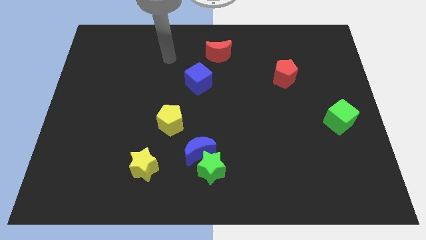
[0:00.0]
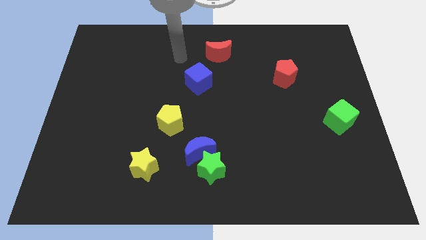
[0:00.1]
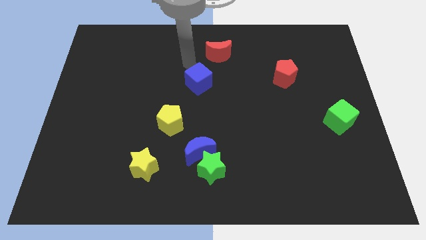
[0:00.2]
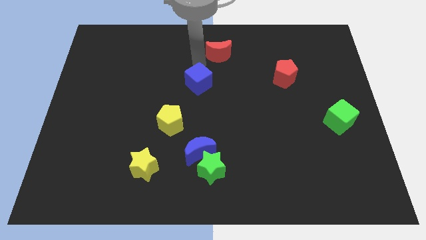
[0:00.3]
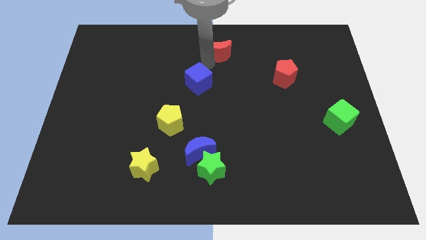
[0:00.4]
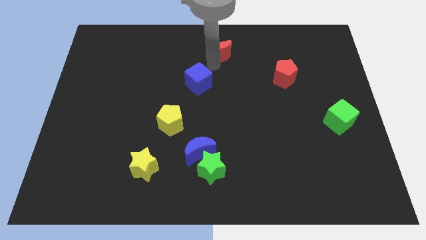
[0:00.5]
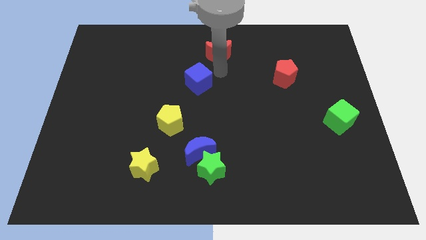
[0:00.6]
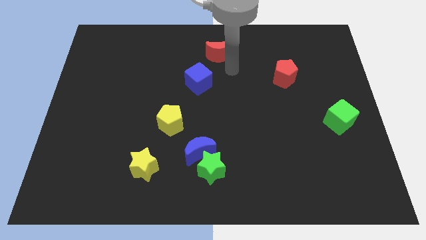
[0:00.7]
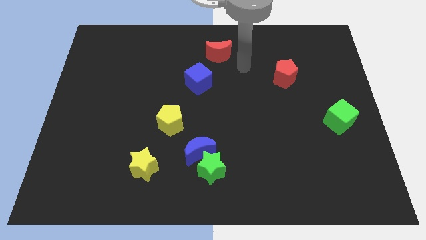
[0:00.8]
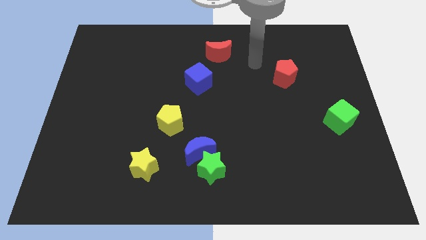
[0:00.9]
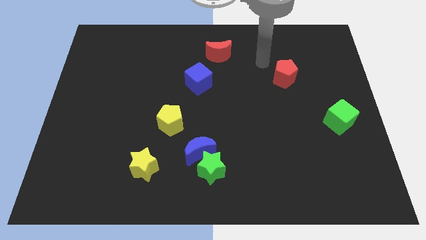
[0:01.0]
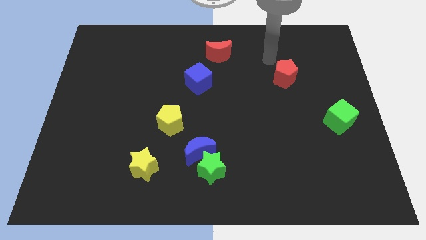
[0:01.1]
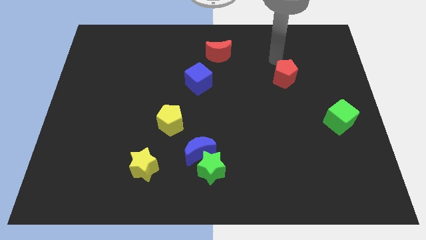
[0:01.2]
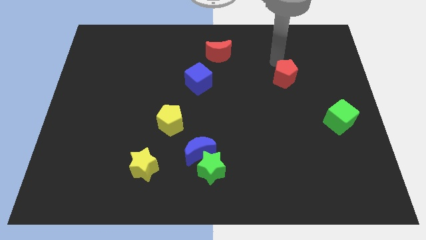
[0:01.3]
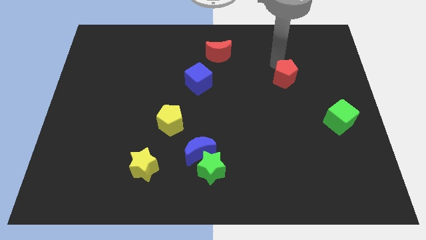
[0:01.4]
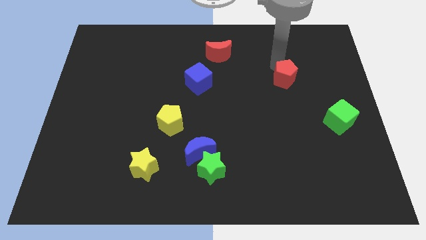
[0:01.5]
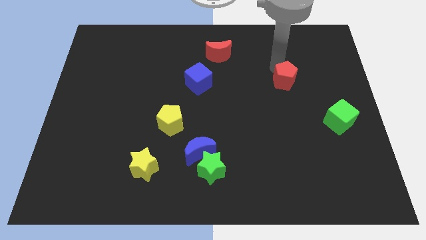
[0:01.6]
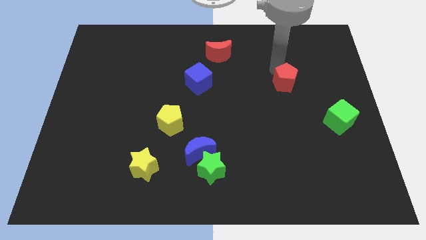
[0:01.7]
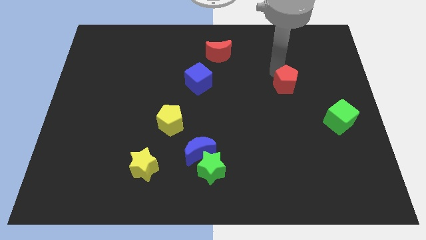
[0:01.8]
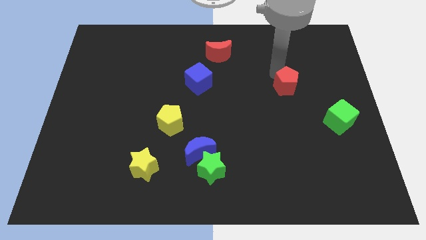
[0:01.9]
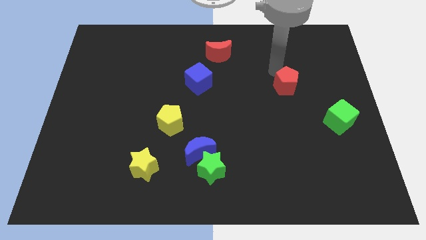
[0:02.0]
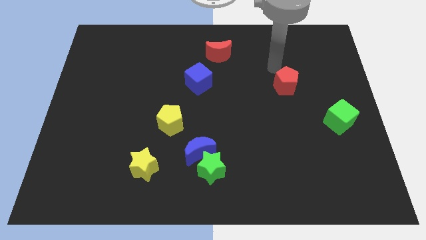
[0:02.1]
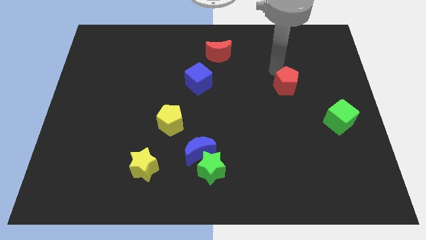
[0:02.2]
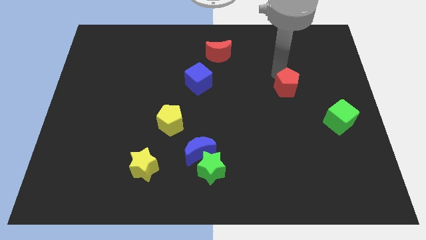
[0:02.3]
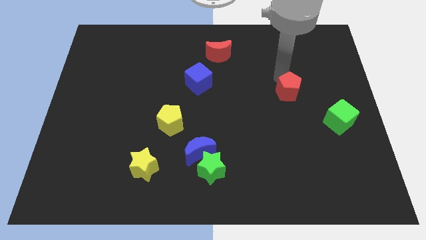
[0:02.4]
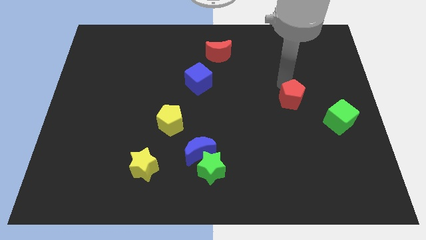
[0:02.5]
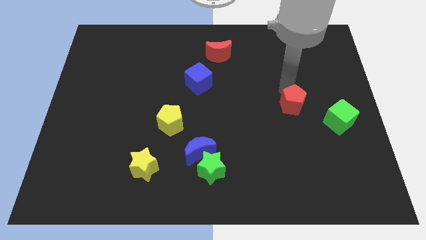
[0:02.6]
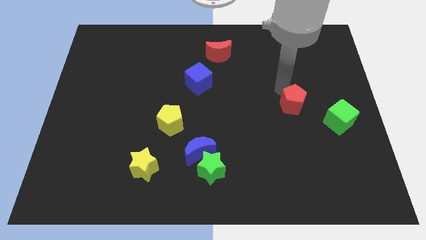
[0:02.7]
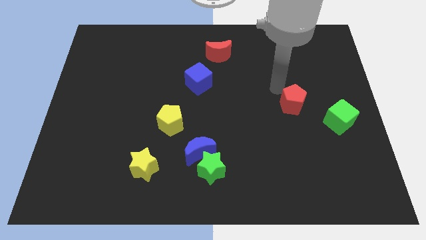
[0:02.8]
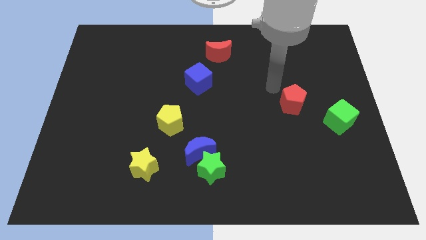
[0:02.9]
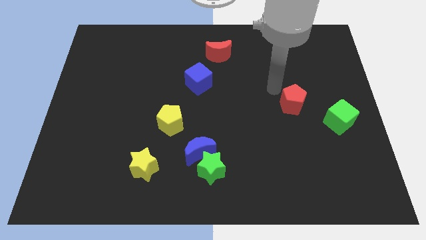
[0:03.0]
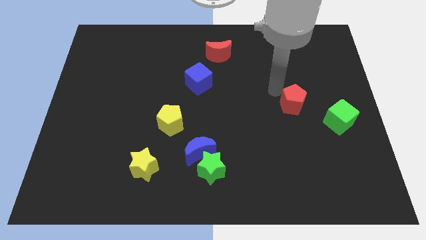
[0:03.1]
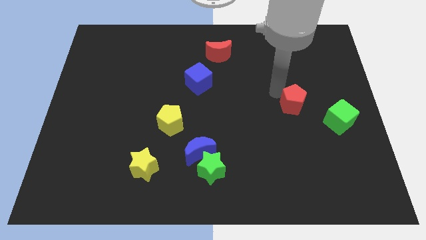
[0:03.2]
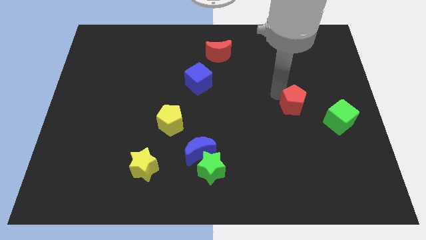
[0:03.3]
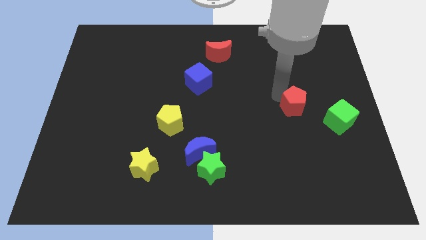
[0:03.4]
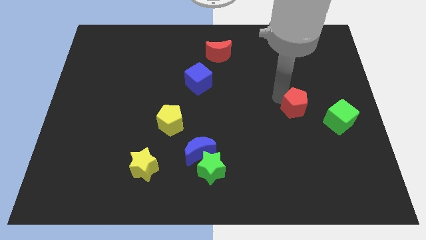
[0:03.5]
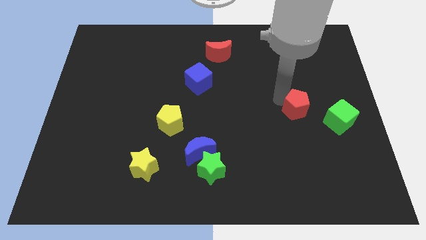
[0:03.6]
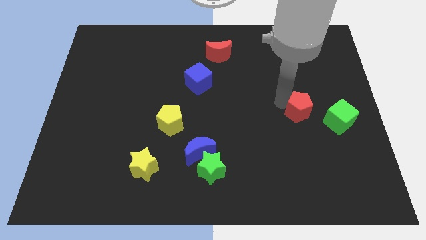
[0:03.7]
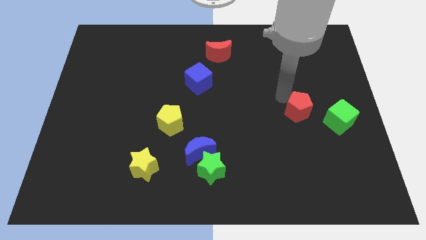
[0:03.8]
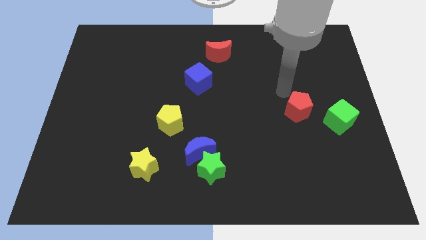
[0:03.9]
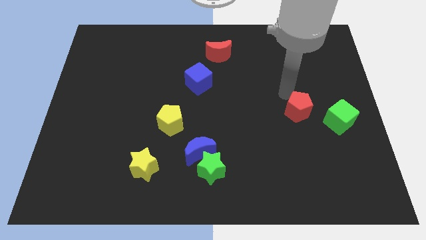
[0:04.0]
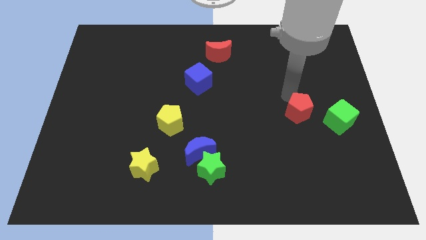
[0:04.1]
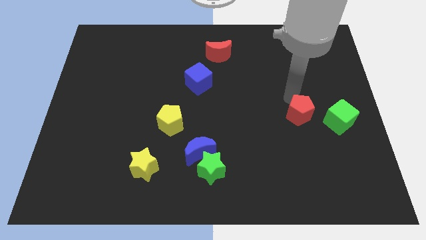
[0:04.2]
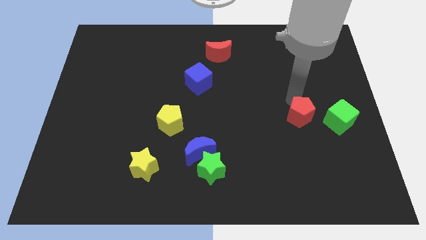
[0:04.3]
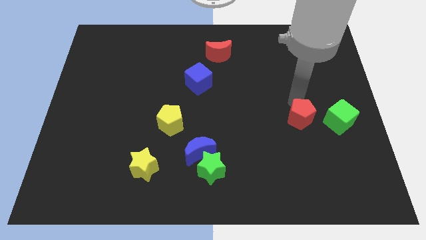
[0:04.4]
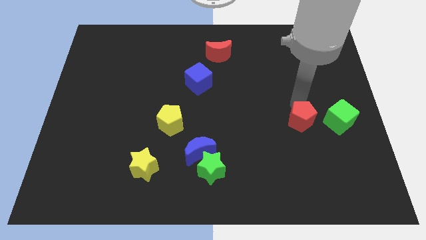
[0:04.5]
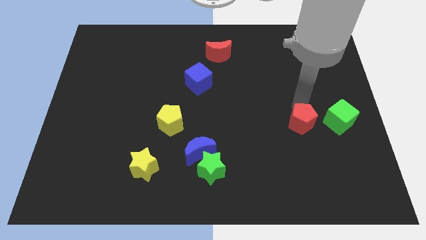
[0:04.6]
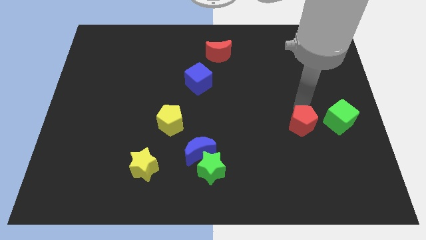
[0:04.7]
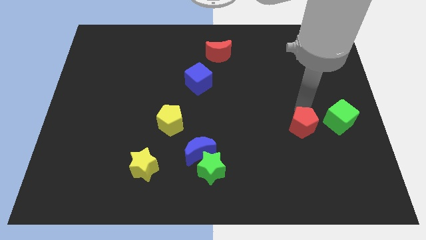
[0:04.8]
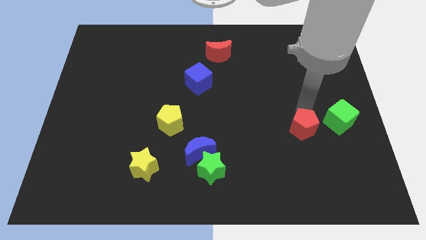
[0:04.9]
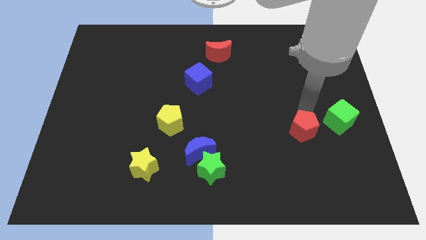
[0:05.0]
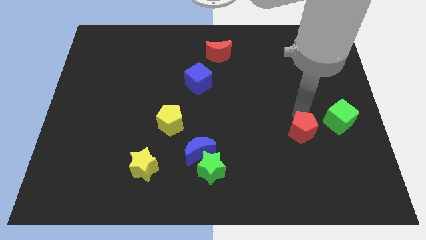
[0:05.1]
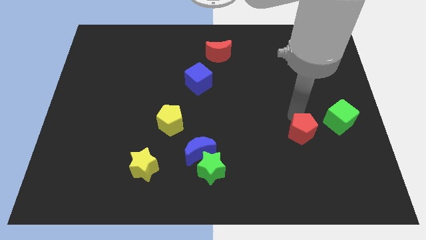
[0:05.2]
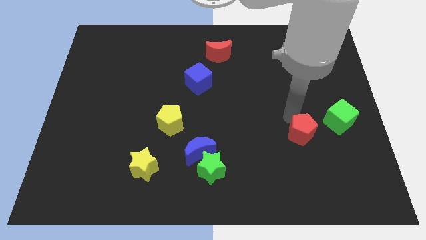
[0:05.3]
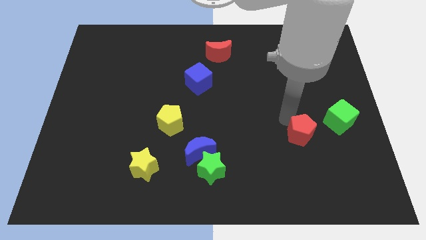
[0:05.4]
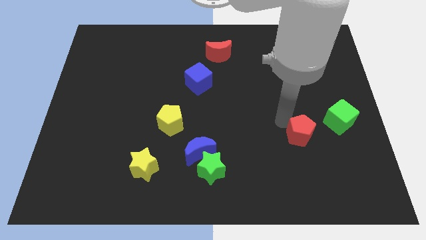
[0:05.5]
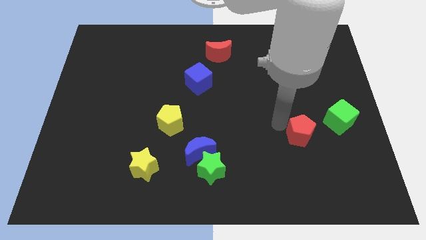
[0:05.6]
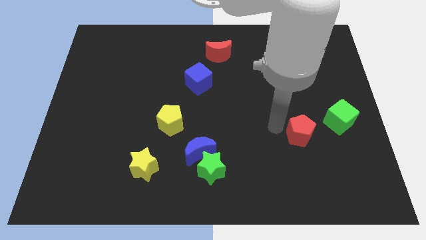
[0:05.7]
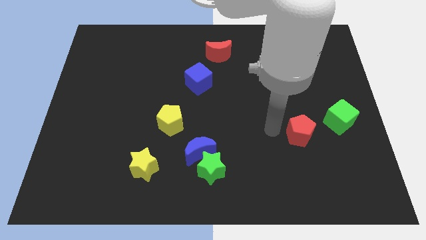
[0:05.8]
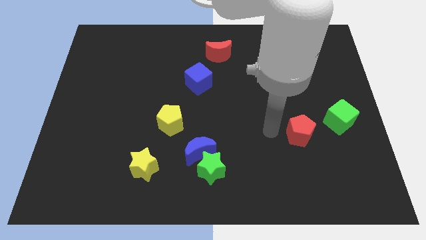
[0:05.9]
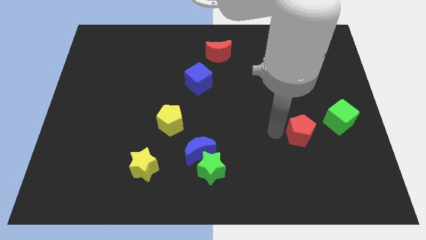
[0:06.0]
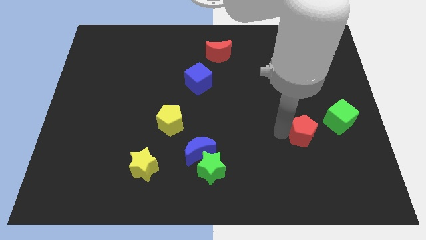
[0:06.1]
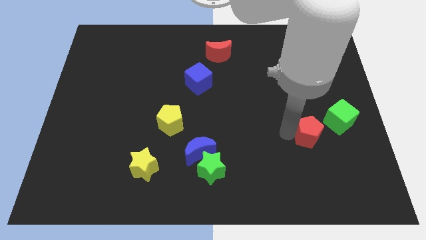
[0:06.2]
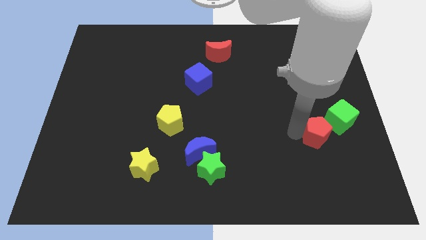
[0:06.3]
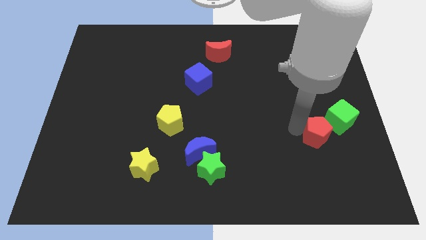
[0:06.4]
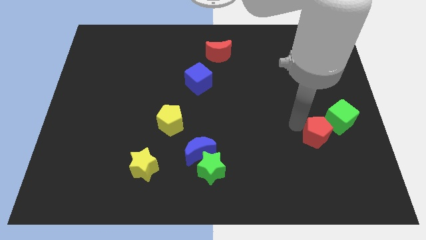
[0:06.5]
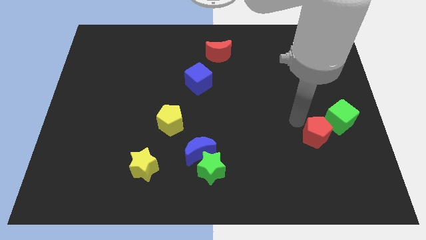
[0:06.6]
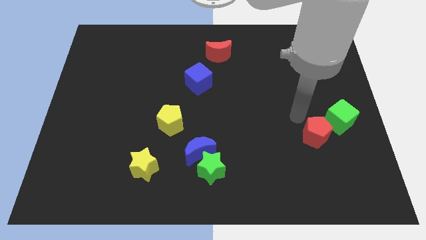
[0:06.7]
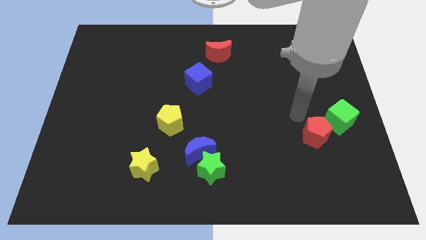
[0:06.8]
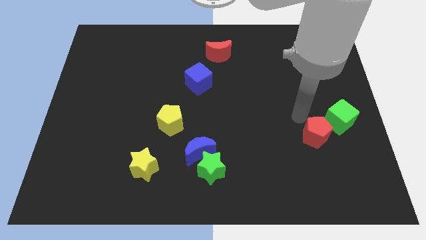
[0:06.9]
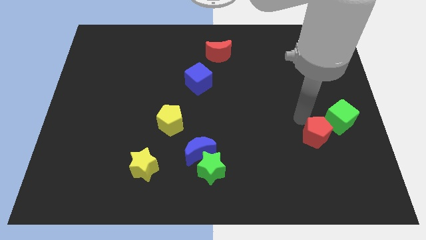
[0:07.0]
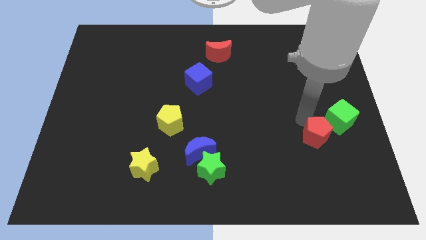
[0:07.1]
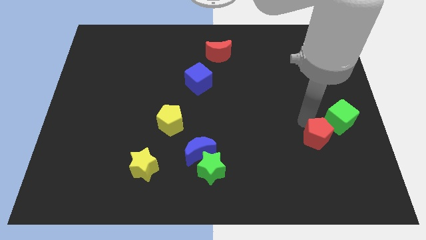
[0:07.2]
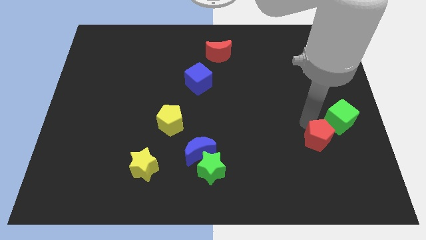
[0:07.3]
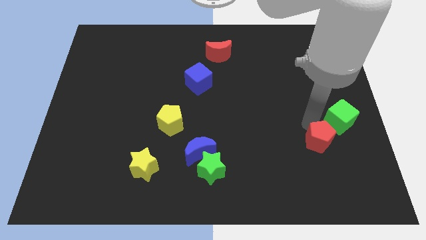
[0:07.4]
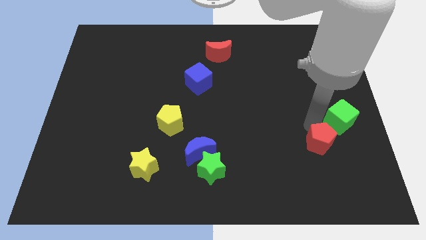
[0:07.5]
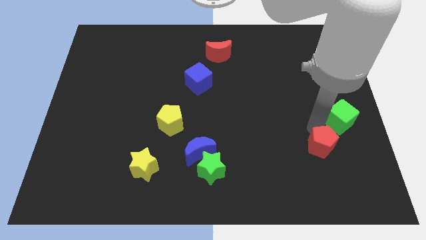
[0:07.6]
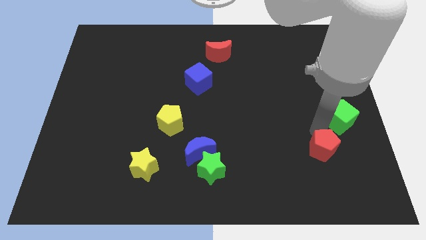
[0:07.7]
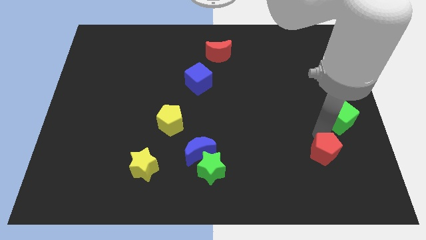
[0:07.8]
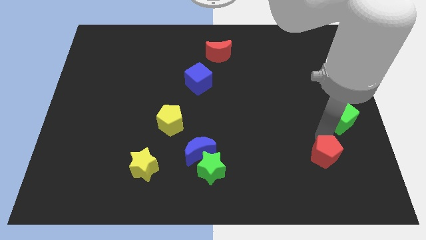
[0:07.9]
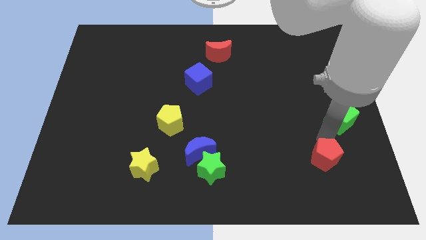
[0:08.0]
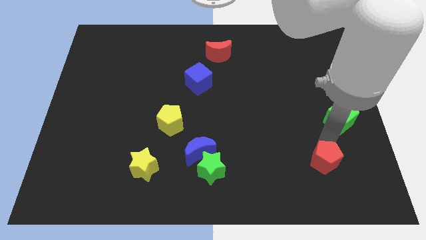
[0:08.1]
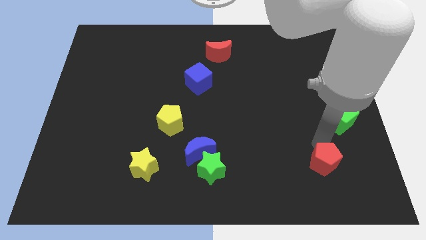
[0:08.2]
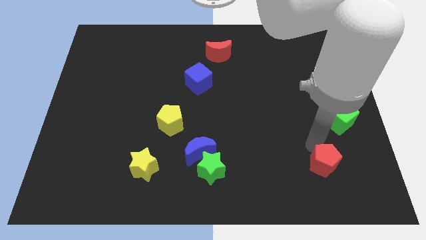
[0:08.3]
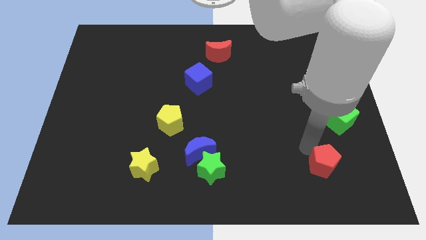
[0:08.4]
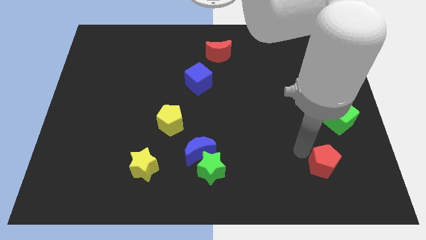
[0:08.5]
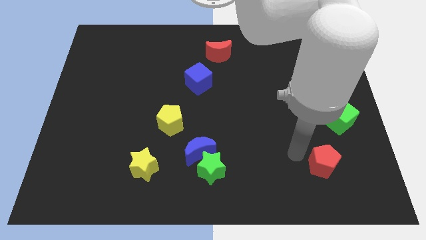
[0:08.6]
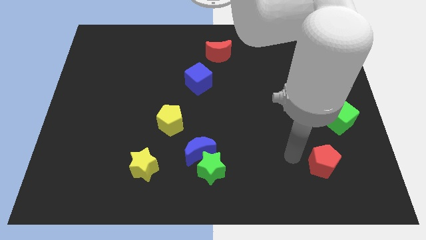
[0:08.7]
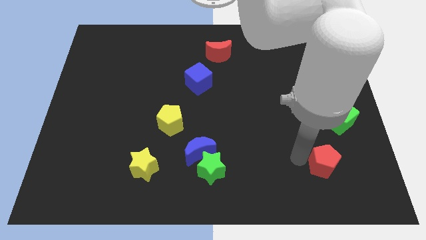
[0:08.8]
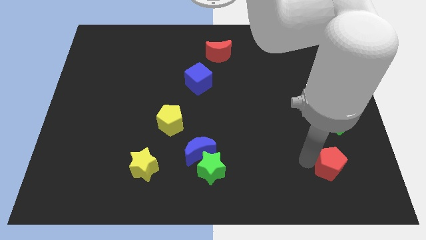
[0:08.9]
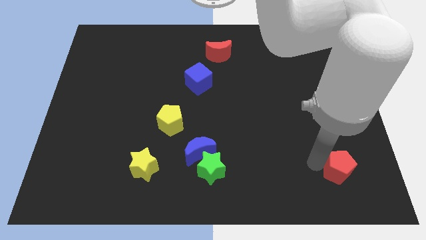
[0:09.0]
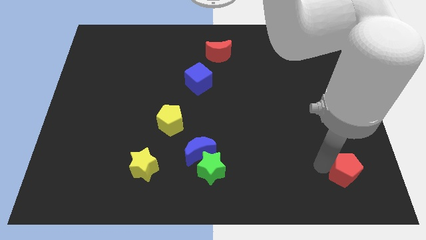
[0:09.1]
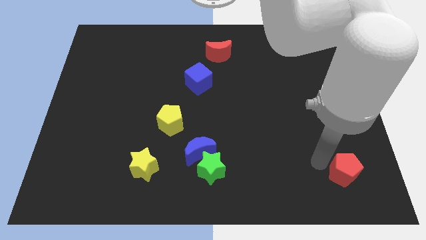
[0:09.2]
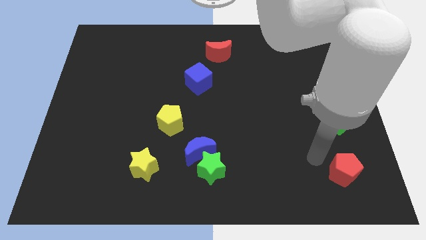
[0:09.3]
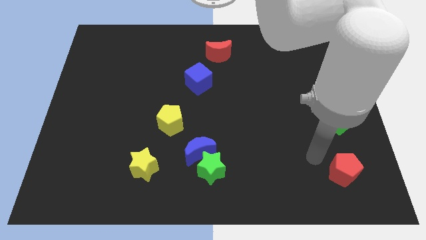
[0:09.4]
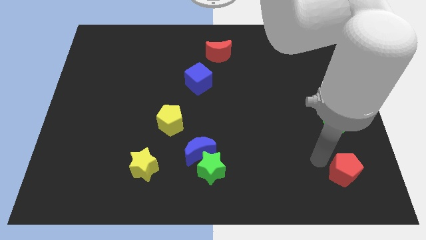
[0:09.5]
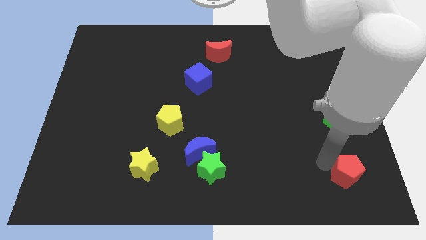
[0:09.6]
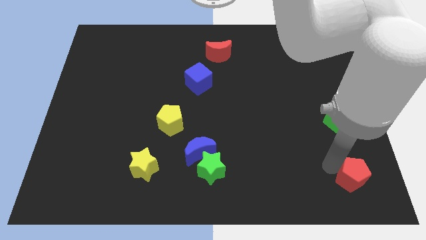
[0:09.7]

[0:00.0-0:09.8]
put the red pentagon to the lower right corner
